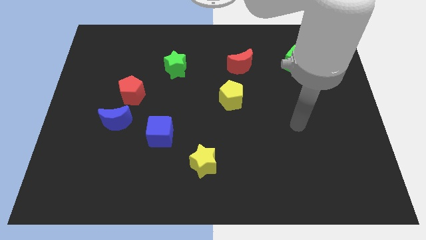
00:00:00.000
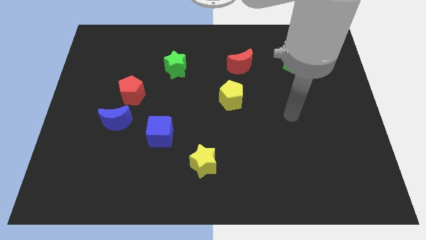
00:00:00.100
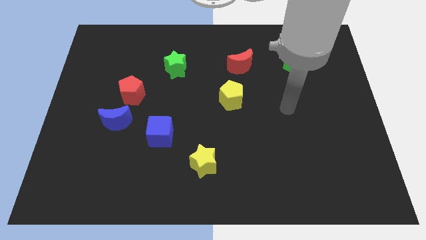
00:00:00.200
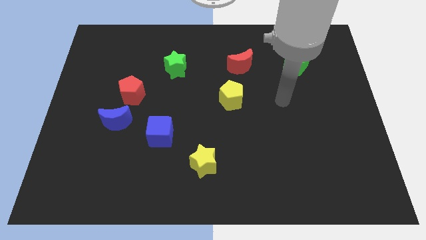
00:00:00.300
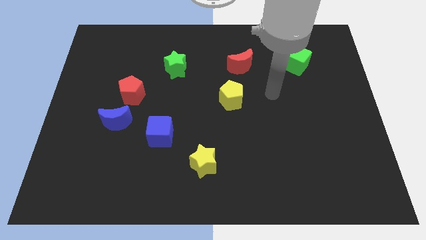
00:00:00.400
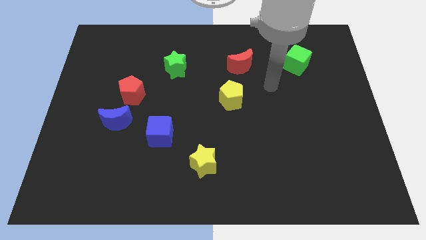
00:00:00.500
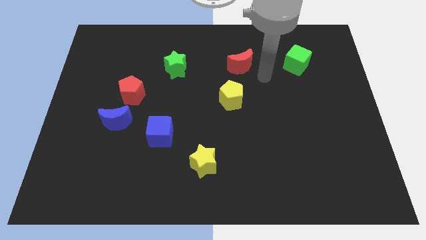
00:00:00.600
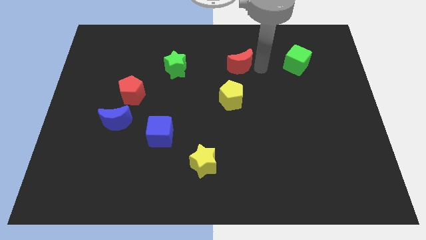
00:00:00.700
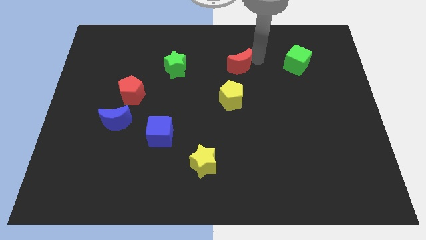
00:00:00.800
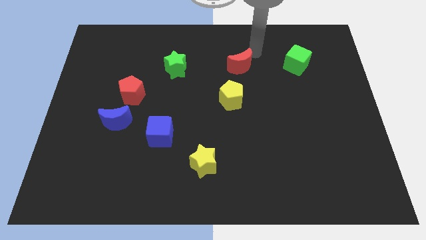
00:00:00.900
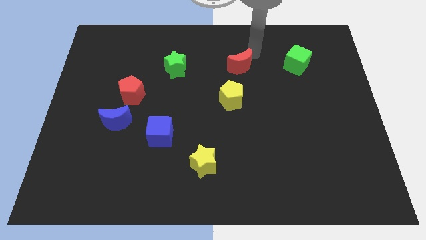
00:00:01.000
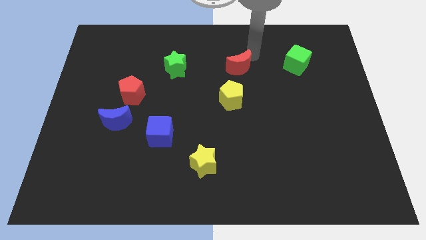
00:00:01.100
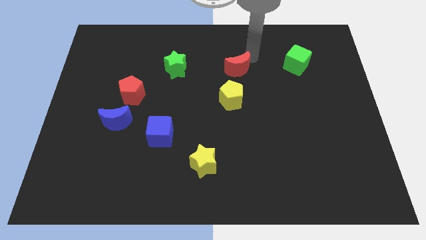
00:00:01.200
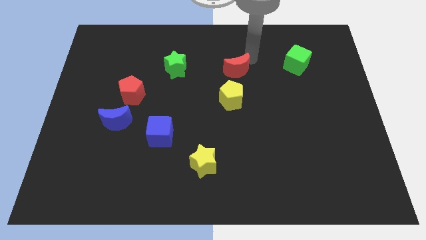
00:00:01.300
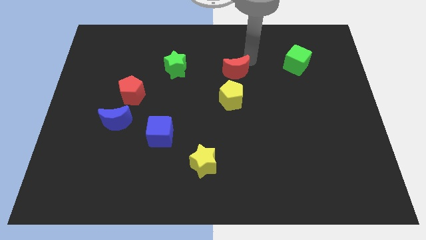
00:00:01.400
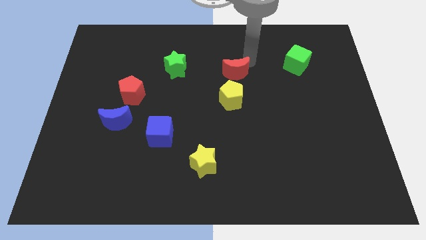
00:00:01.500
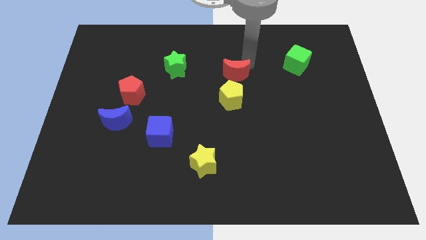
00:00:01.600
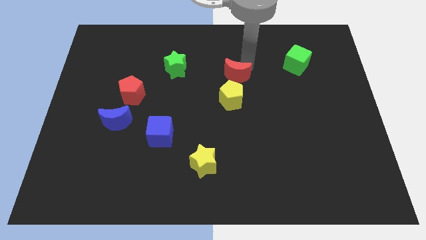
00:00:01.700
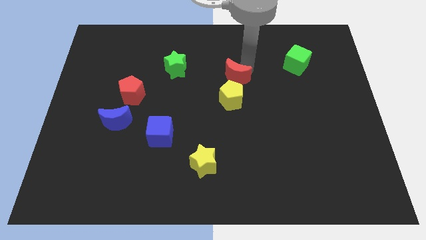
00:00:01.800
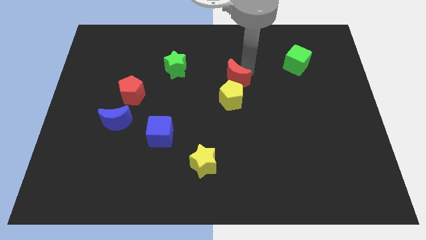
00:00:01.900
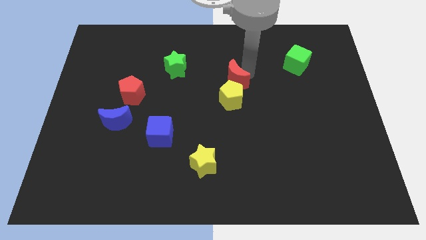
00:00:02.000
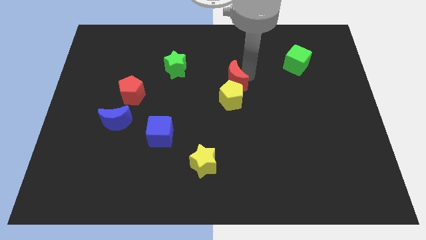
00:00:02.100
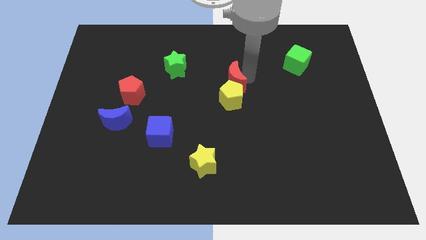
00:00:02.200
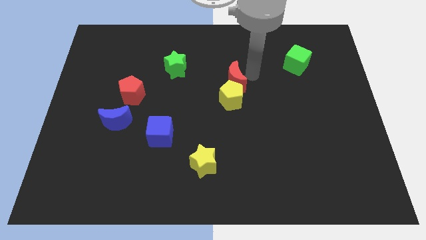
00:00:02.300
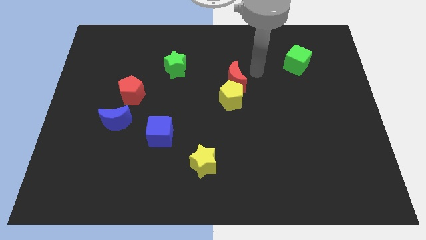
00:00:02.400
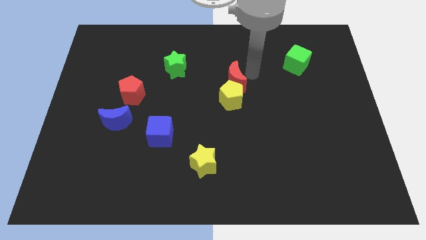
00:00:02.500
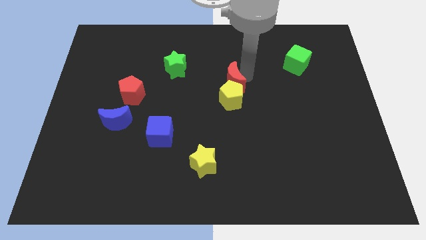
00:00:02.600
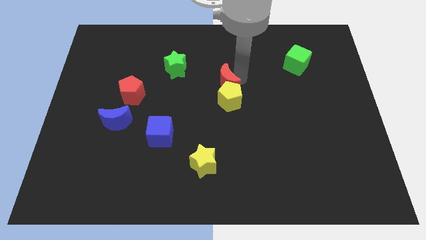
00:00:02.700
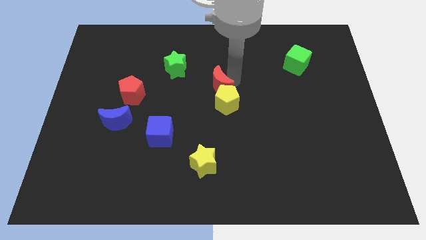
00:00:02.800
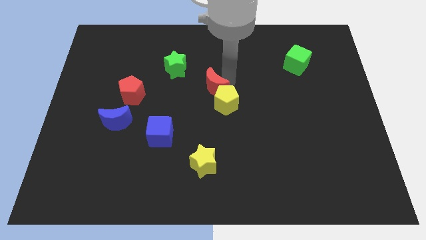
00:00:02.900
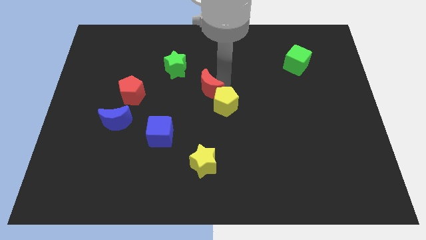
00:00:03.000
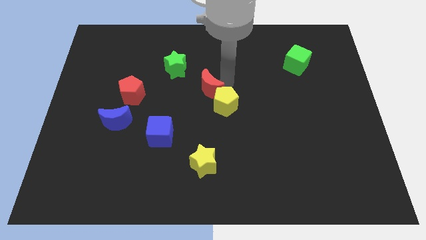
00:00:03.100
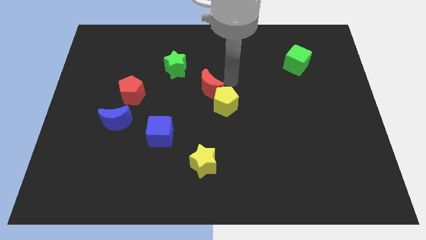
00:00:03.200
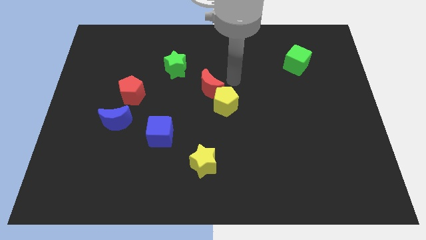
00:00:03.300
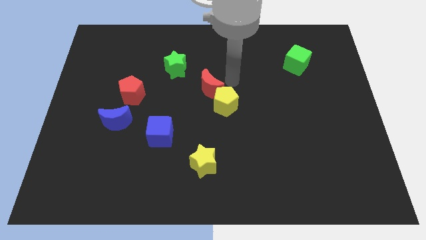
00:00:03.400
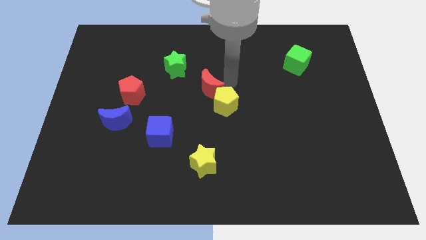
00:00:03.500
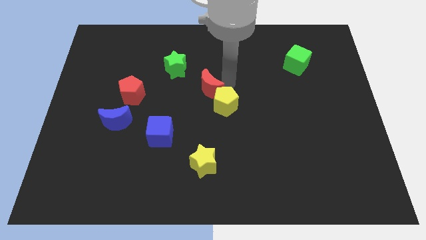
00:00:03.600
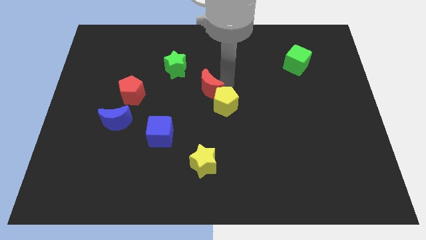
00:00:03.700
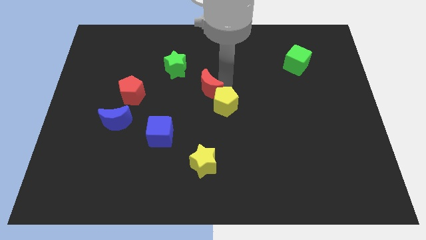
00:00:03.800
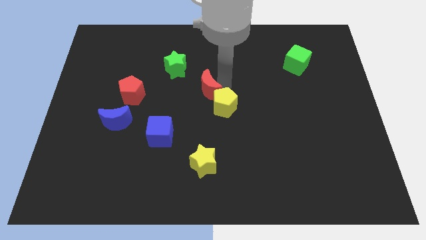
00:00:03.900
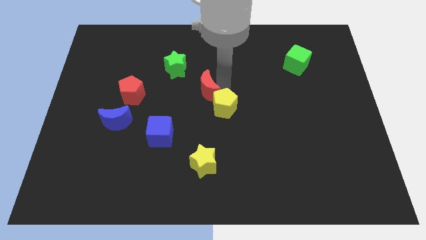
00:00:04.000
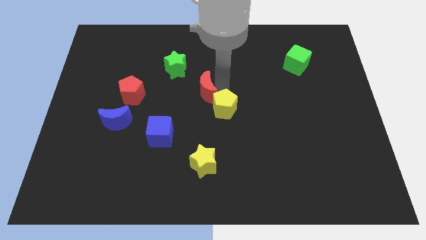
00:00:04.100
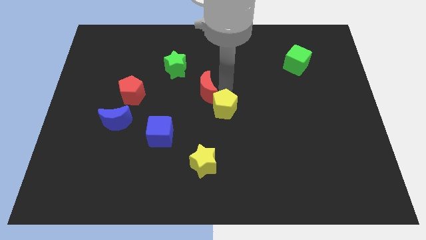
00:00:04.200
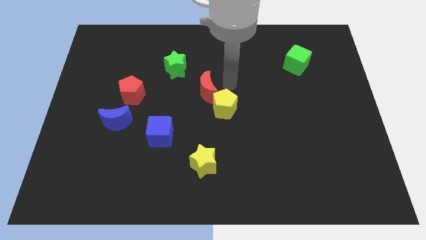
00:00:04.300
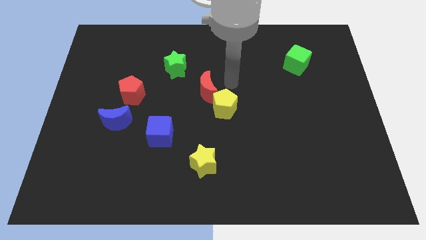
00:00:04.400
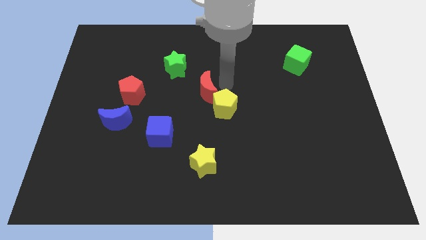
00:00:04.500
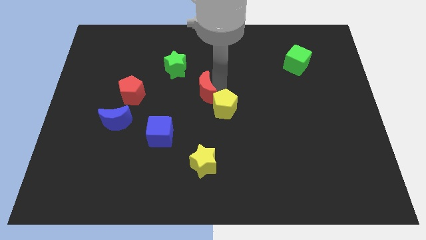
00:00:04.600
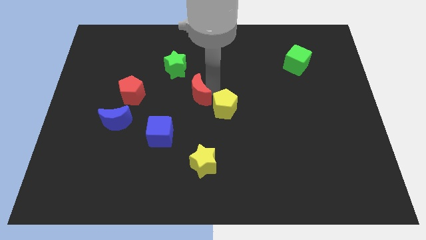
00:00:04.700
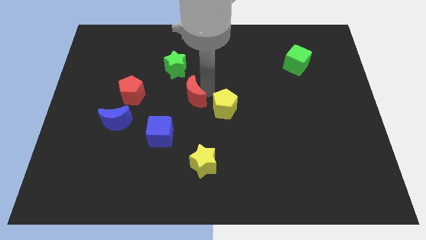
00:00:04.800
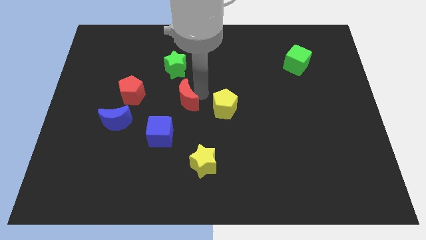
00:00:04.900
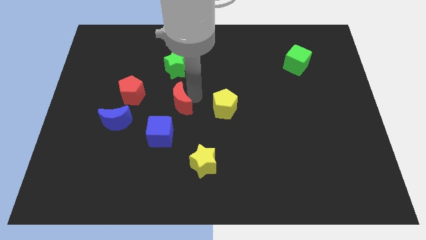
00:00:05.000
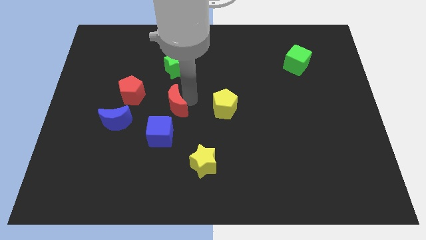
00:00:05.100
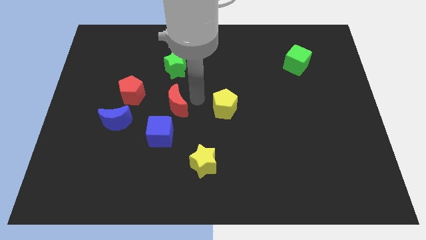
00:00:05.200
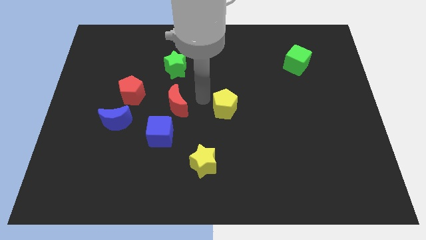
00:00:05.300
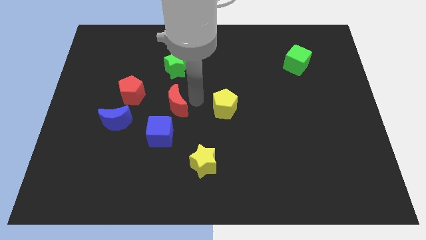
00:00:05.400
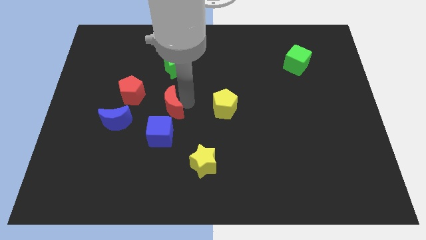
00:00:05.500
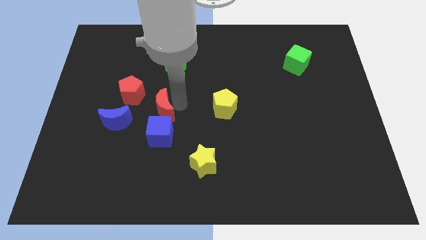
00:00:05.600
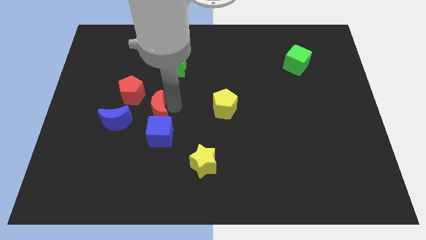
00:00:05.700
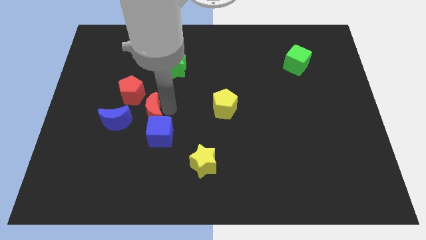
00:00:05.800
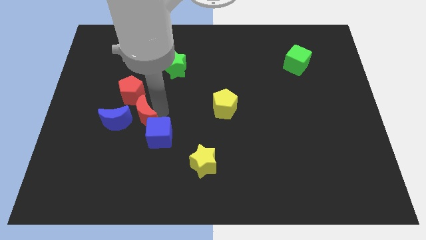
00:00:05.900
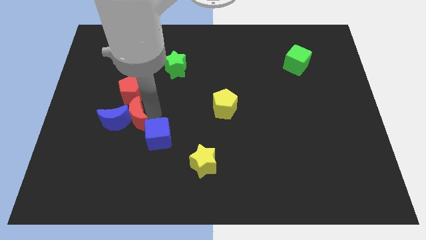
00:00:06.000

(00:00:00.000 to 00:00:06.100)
push the red moon towards the blue moon

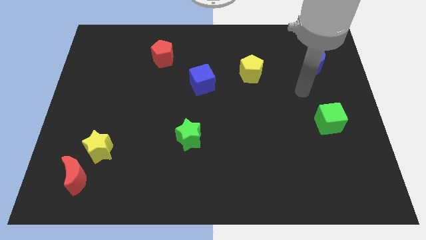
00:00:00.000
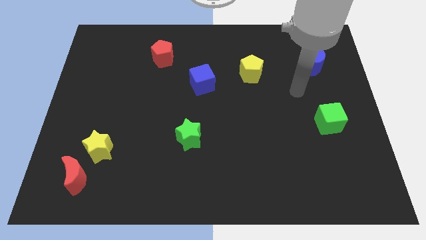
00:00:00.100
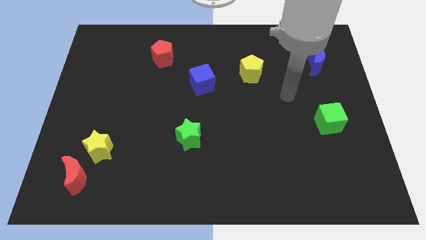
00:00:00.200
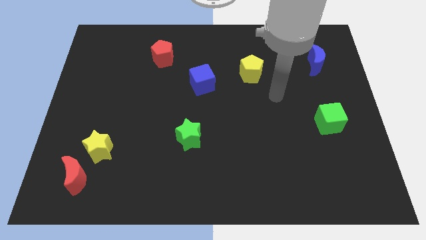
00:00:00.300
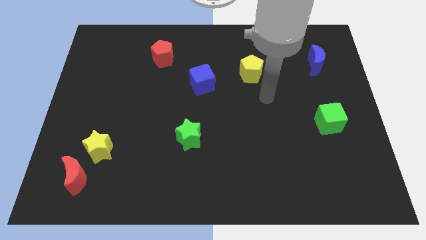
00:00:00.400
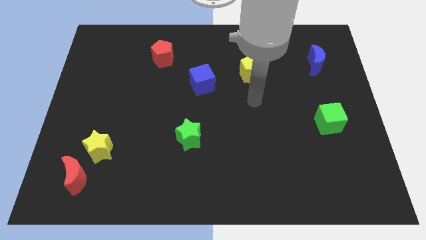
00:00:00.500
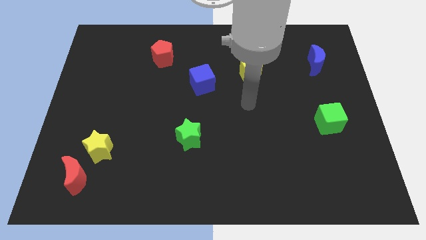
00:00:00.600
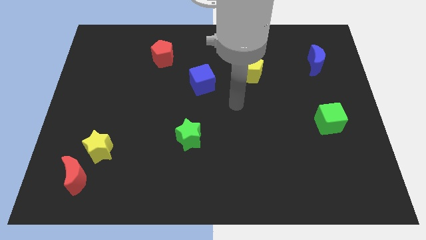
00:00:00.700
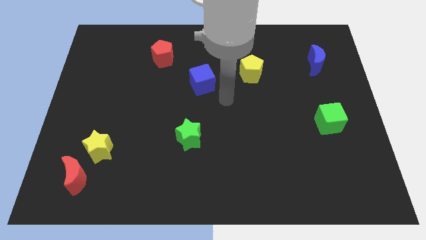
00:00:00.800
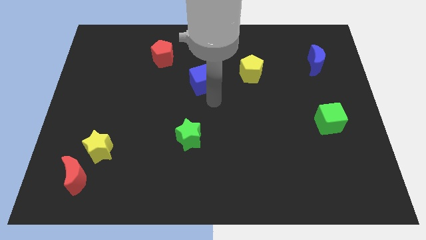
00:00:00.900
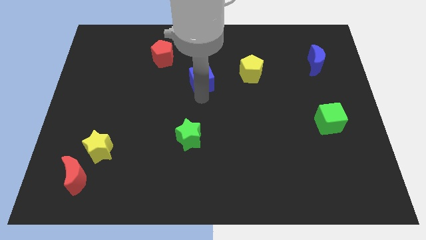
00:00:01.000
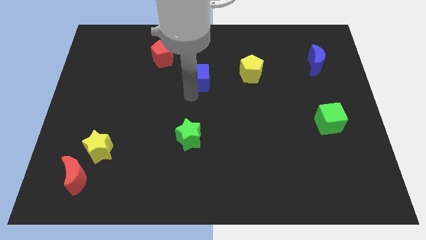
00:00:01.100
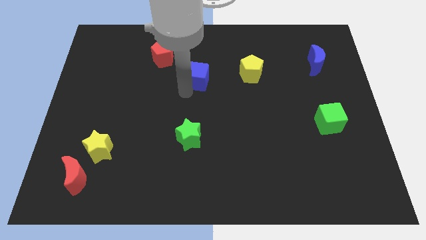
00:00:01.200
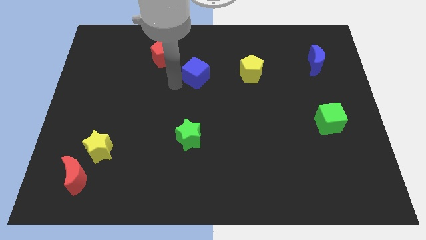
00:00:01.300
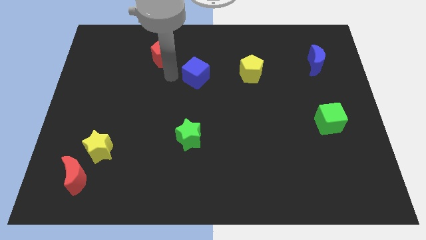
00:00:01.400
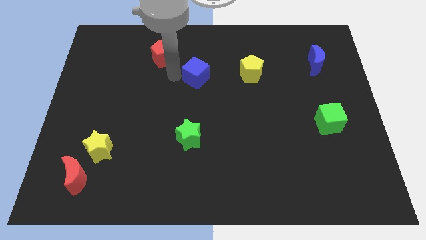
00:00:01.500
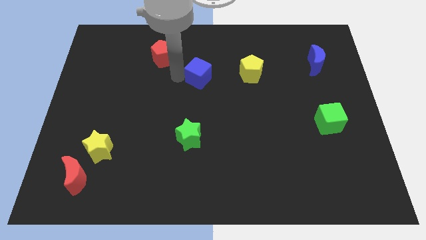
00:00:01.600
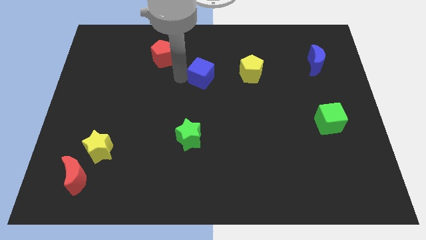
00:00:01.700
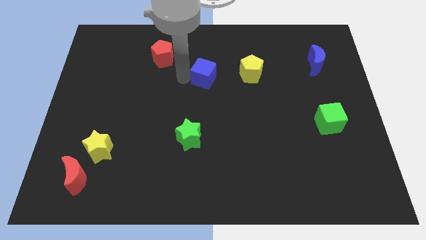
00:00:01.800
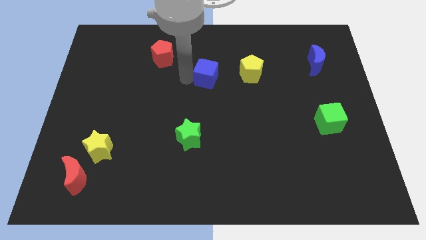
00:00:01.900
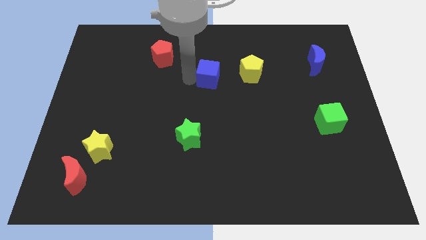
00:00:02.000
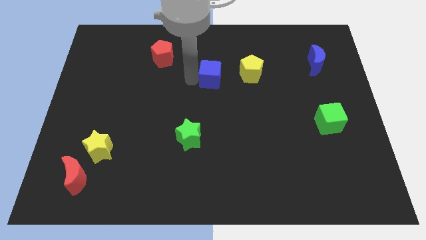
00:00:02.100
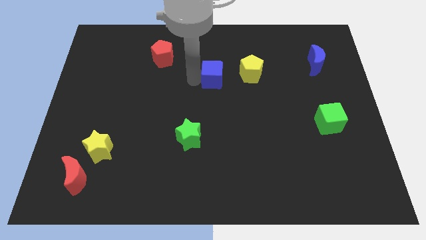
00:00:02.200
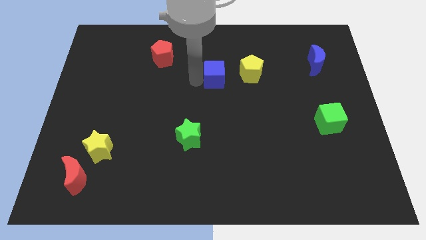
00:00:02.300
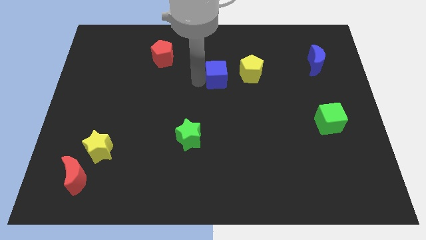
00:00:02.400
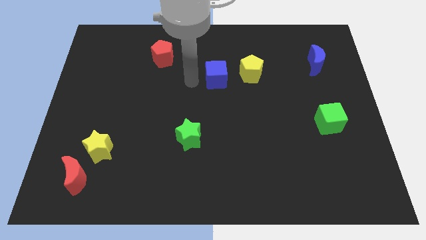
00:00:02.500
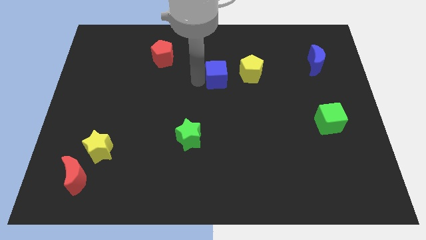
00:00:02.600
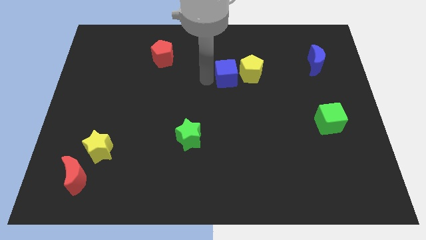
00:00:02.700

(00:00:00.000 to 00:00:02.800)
slide the blue cube next to the yellow pentagon
